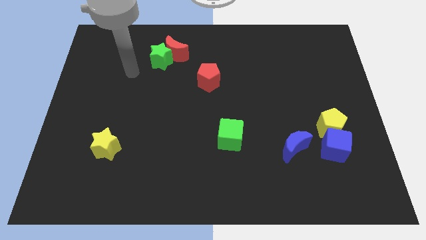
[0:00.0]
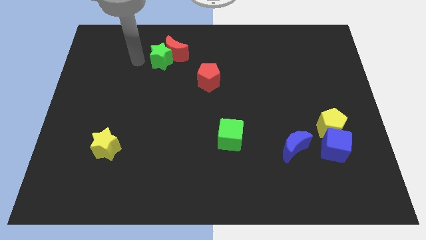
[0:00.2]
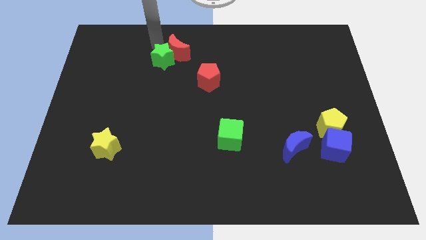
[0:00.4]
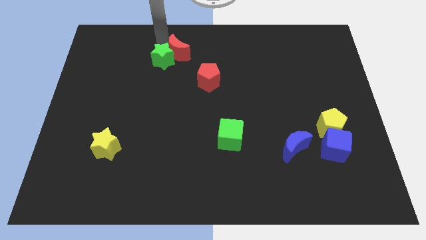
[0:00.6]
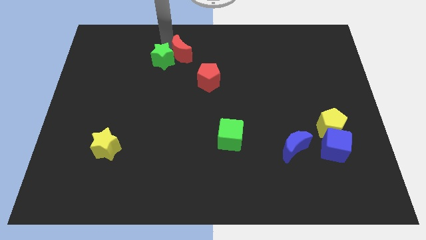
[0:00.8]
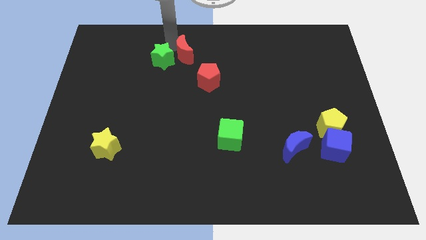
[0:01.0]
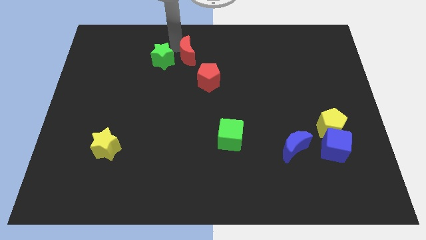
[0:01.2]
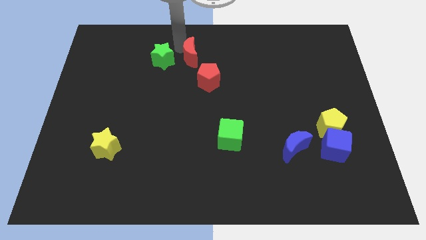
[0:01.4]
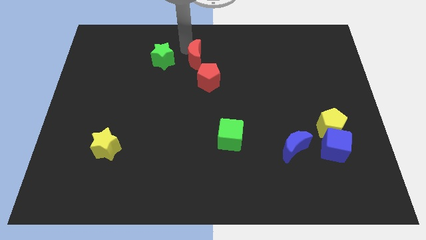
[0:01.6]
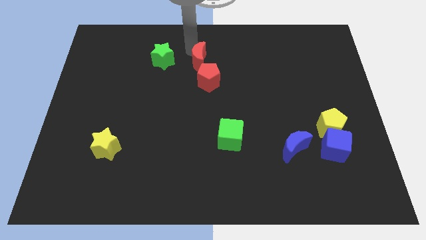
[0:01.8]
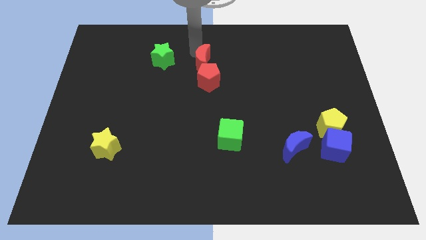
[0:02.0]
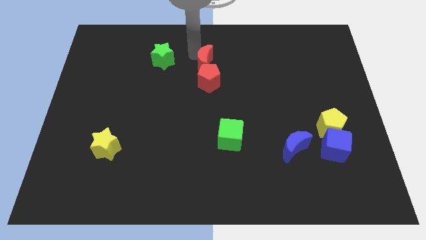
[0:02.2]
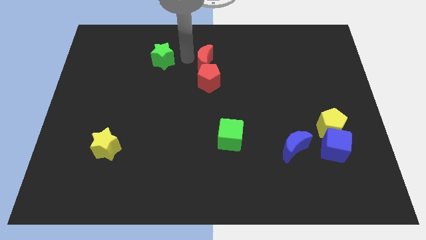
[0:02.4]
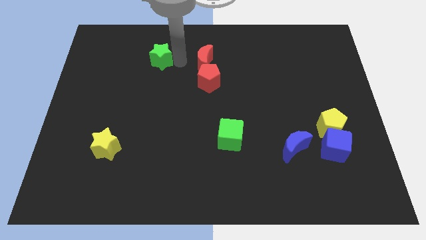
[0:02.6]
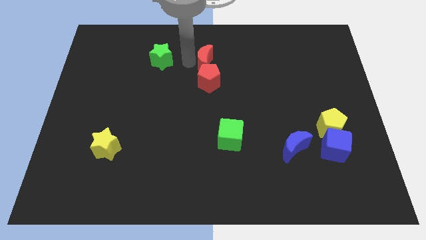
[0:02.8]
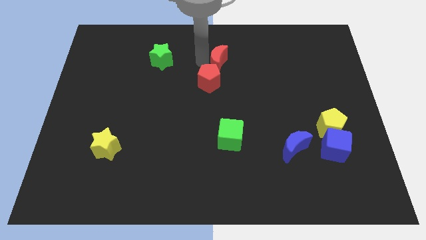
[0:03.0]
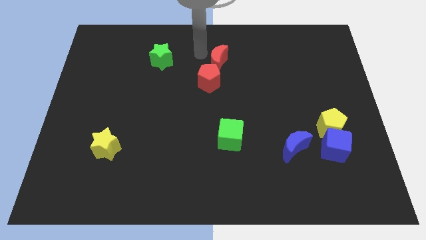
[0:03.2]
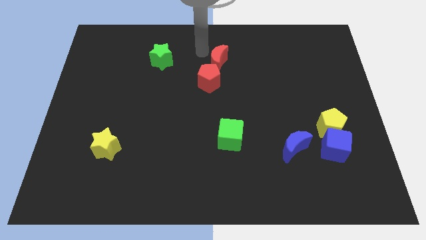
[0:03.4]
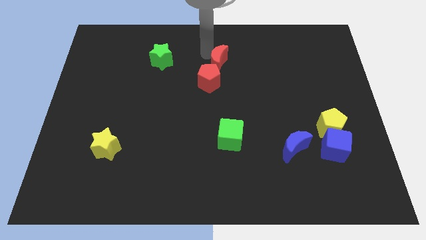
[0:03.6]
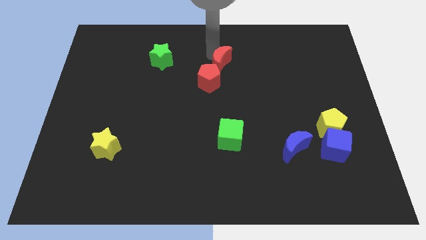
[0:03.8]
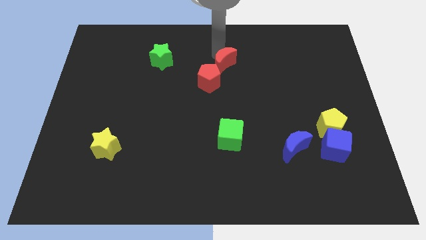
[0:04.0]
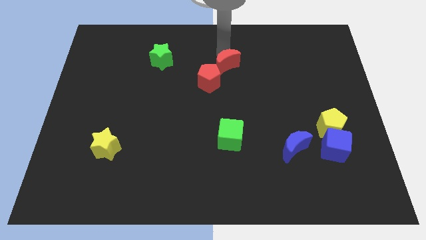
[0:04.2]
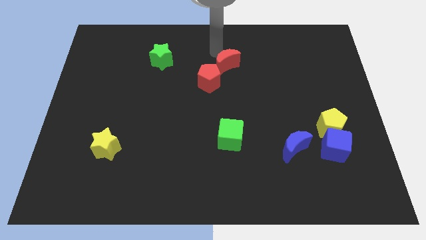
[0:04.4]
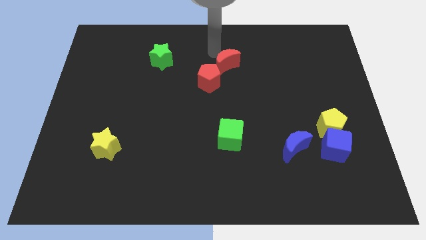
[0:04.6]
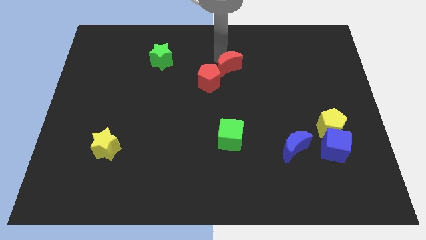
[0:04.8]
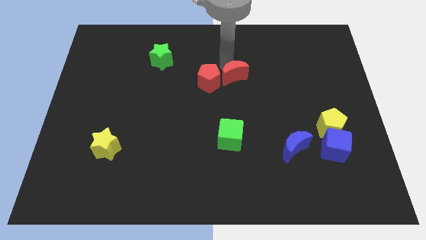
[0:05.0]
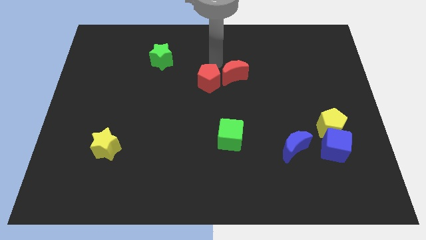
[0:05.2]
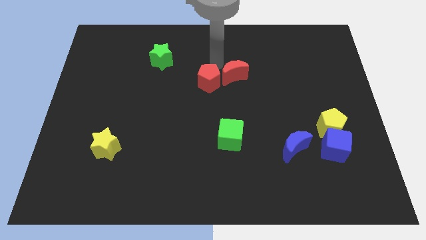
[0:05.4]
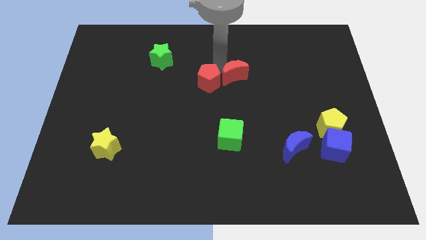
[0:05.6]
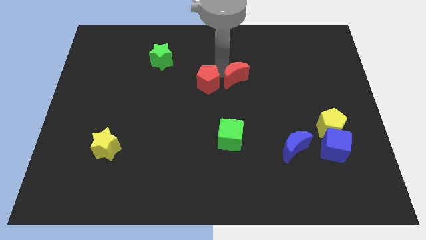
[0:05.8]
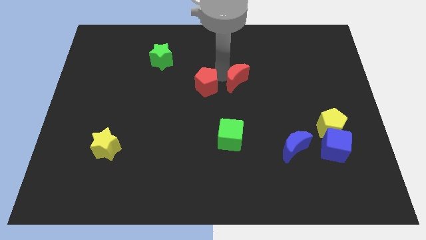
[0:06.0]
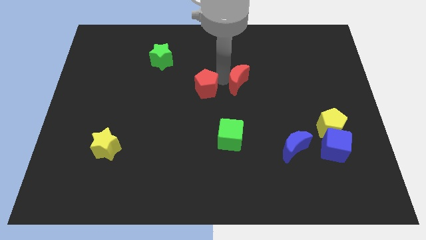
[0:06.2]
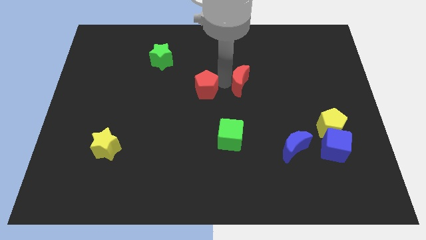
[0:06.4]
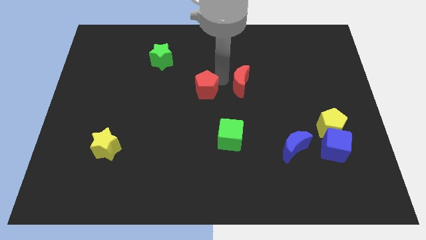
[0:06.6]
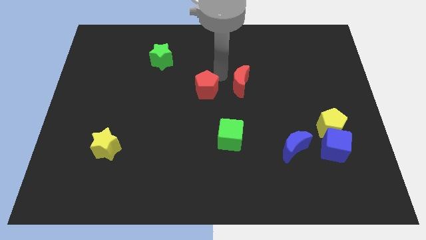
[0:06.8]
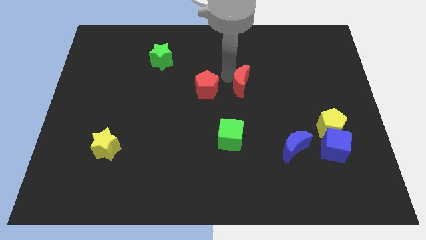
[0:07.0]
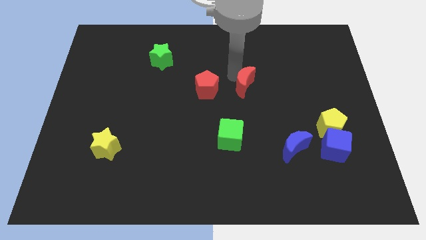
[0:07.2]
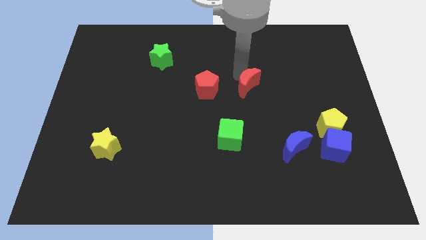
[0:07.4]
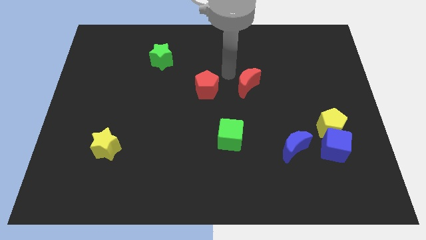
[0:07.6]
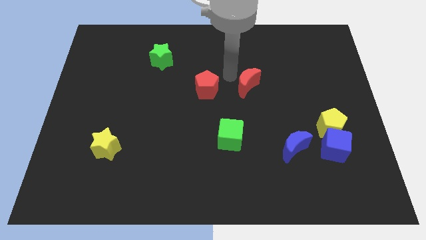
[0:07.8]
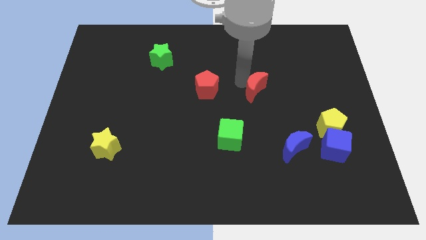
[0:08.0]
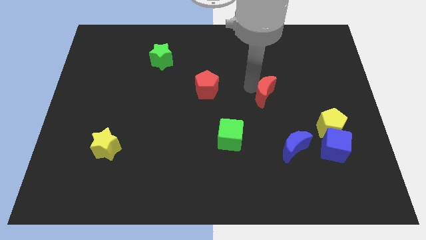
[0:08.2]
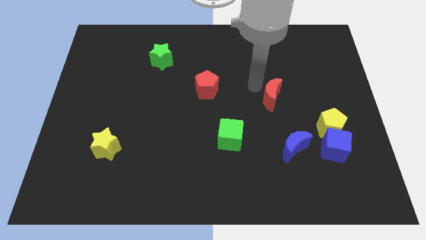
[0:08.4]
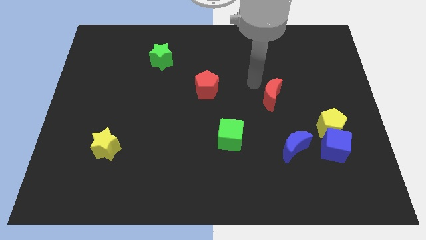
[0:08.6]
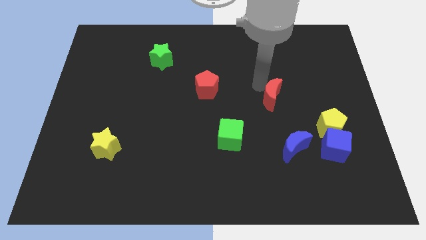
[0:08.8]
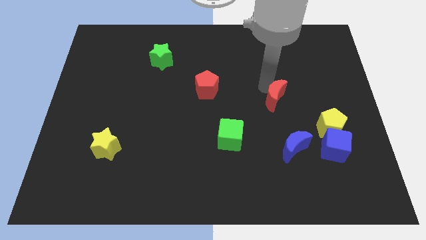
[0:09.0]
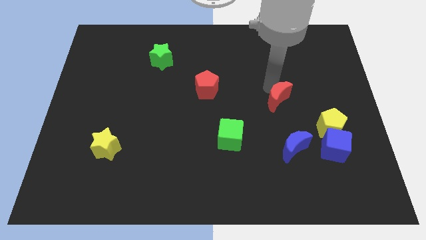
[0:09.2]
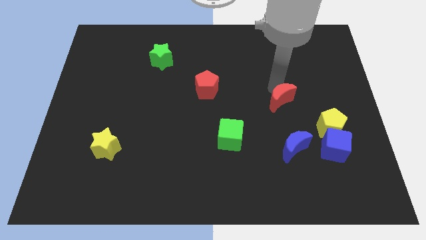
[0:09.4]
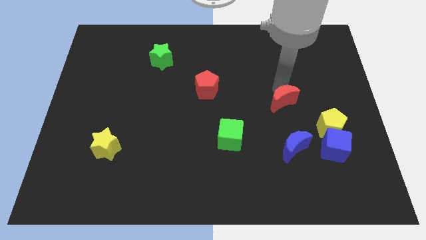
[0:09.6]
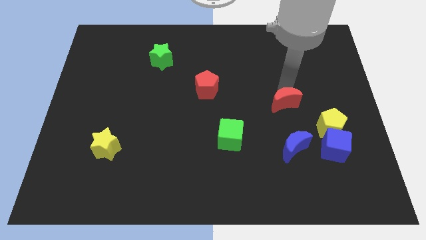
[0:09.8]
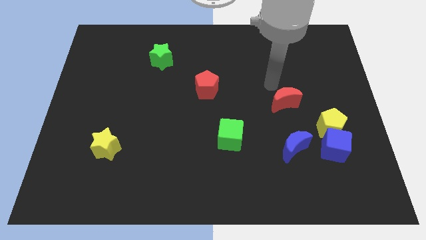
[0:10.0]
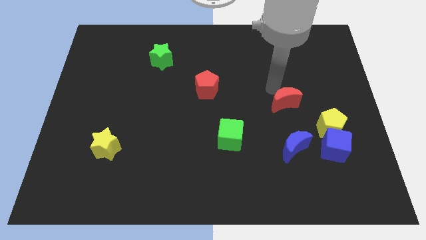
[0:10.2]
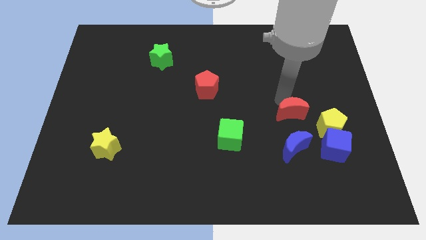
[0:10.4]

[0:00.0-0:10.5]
put the red moon to the top left of the blue cube

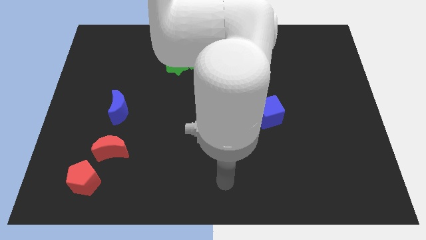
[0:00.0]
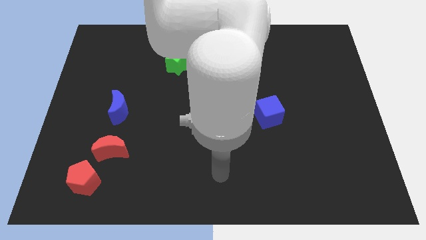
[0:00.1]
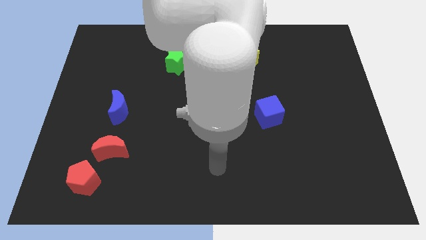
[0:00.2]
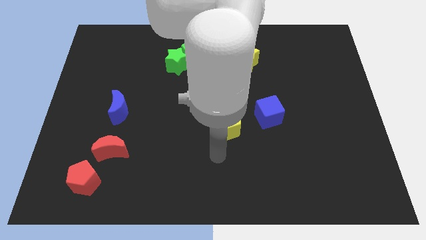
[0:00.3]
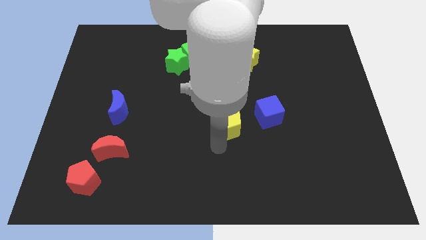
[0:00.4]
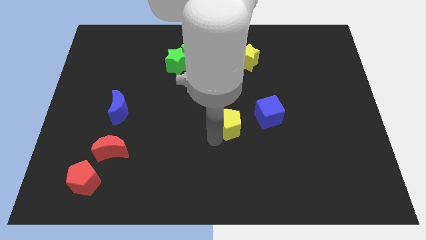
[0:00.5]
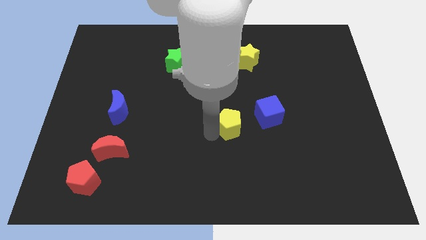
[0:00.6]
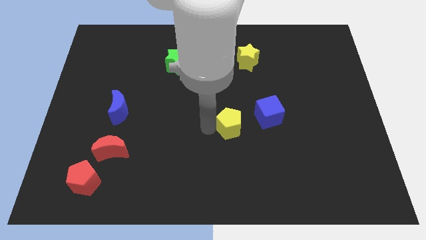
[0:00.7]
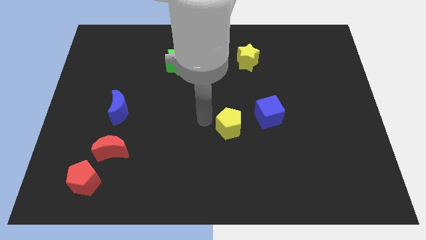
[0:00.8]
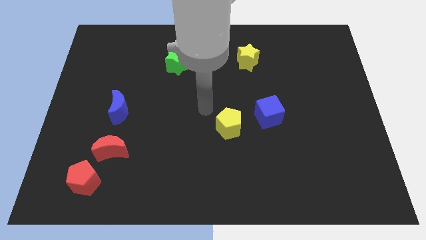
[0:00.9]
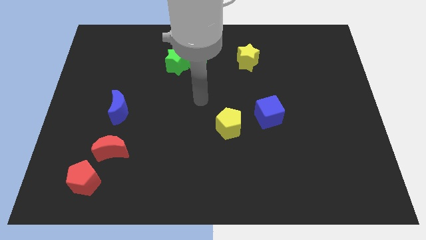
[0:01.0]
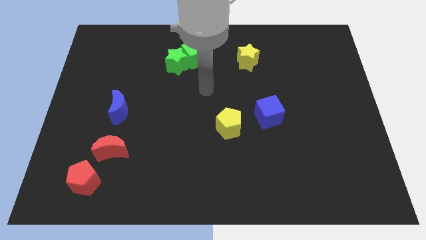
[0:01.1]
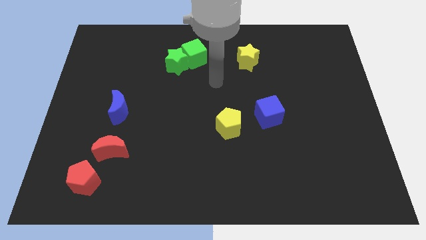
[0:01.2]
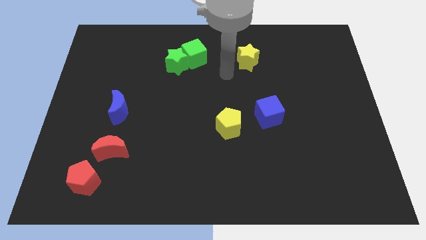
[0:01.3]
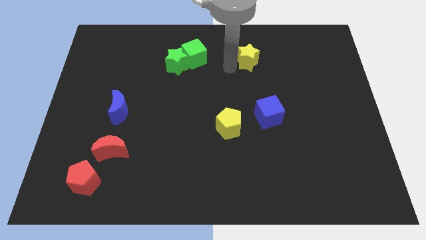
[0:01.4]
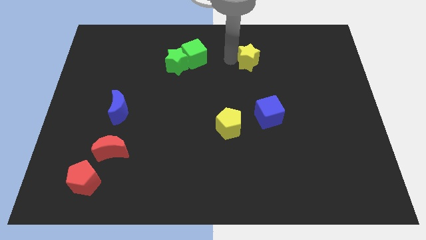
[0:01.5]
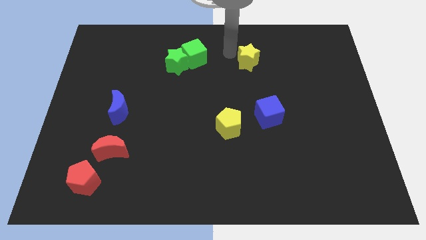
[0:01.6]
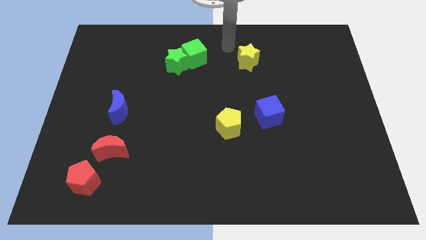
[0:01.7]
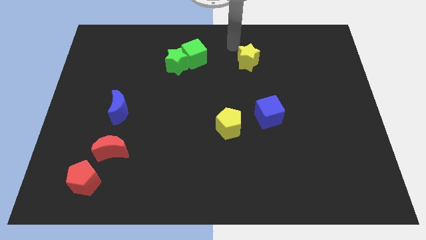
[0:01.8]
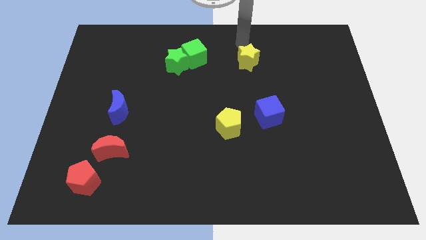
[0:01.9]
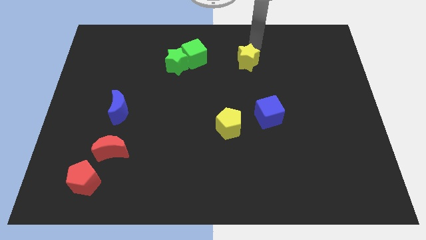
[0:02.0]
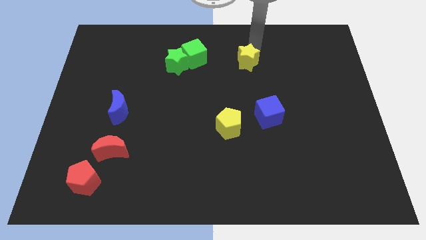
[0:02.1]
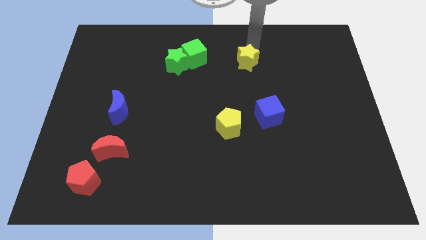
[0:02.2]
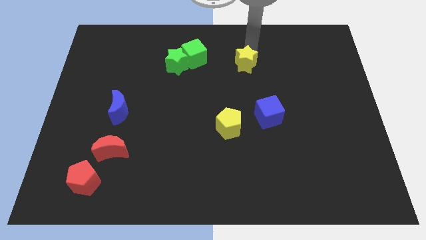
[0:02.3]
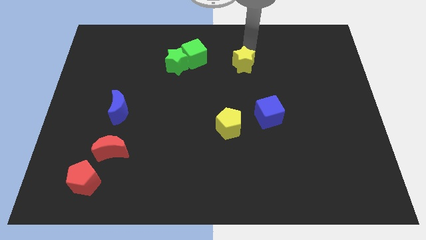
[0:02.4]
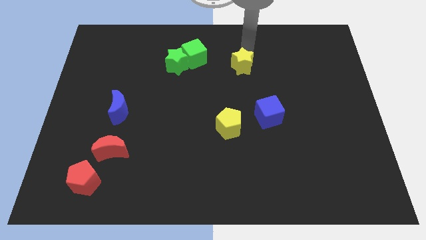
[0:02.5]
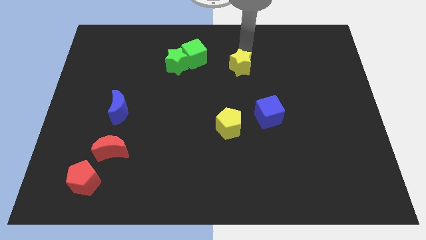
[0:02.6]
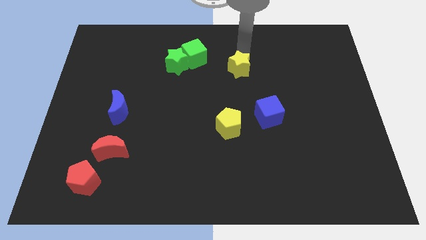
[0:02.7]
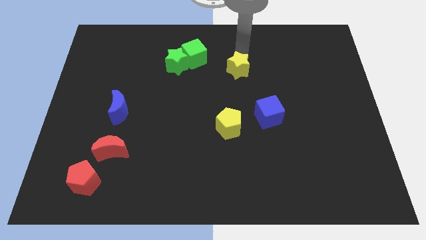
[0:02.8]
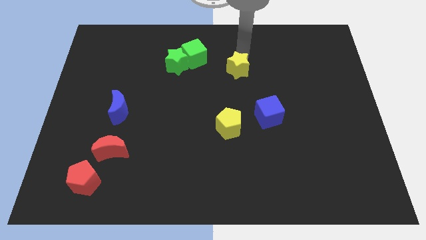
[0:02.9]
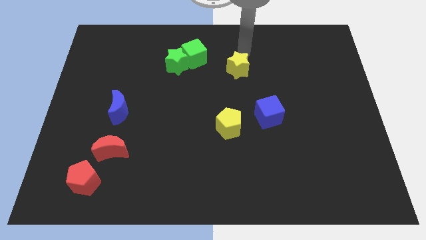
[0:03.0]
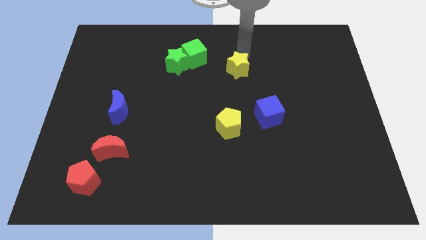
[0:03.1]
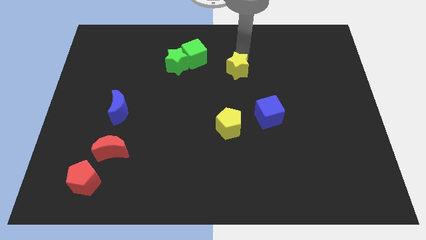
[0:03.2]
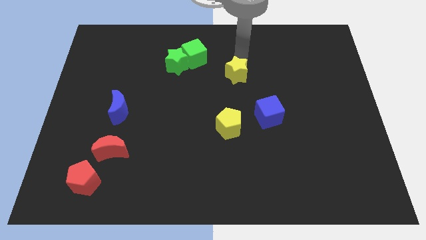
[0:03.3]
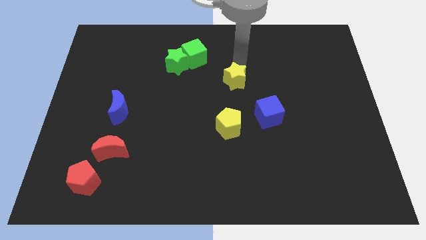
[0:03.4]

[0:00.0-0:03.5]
move the yellow star to the top side of the yellow pentagon
